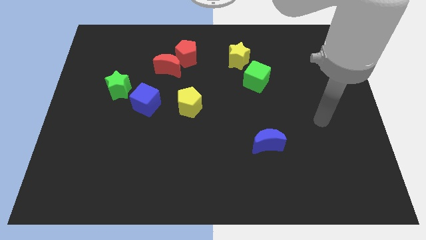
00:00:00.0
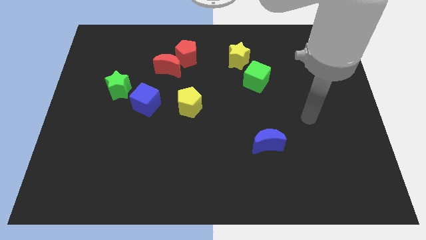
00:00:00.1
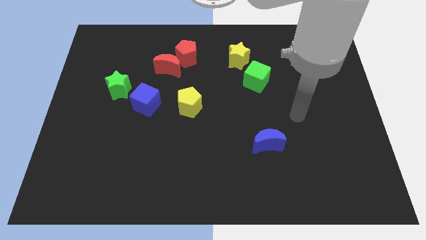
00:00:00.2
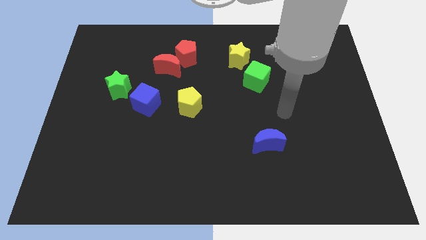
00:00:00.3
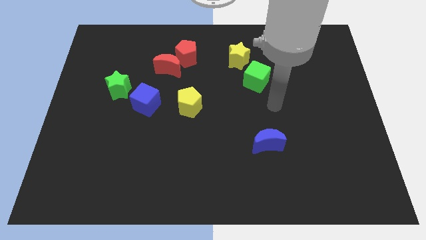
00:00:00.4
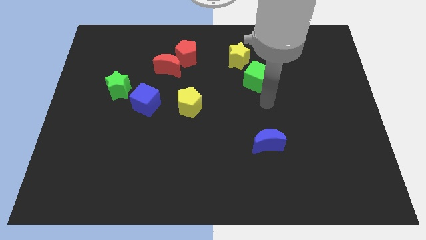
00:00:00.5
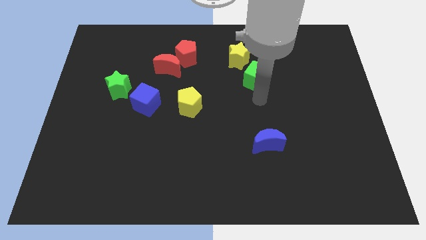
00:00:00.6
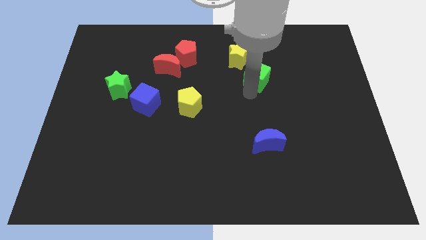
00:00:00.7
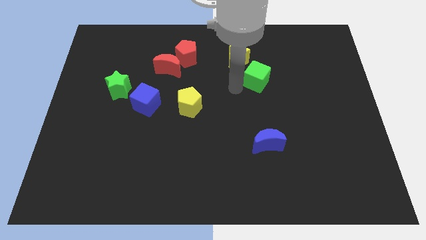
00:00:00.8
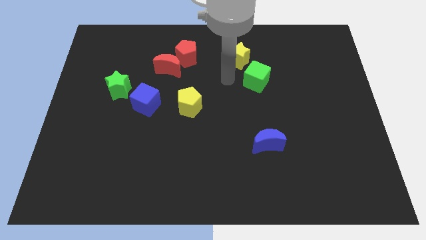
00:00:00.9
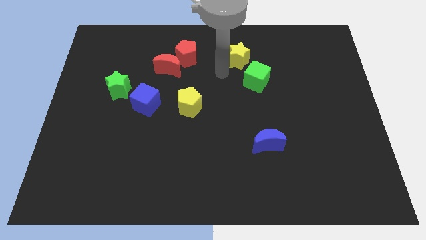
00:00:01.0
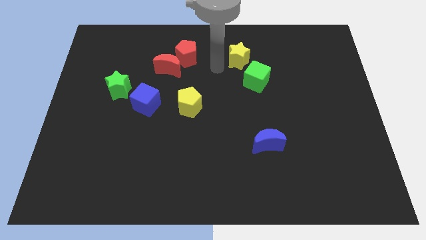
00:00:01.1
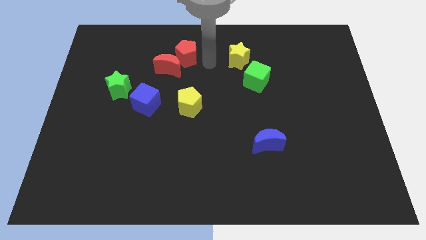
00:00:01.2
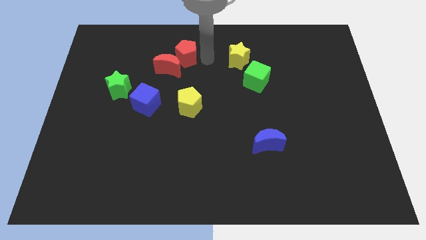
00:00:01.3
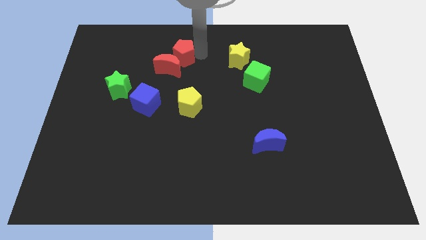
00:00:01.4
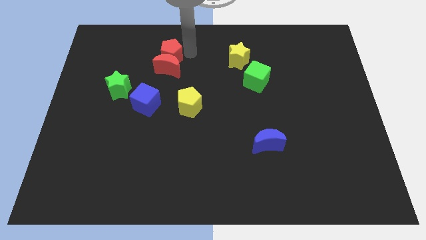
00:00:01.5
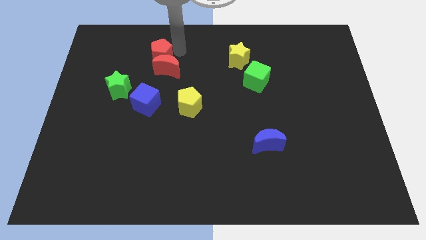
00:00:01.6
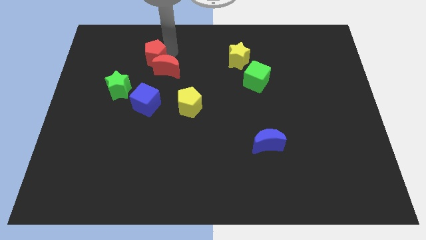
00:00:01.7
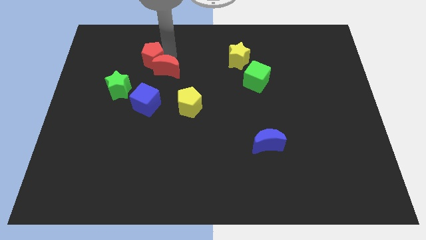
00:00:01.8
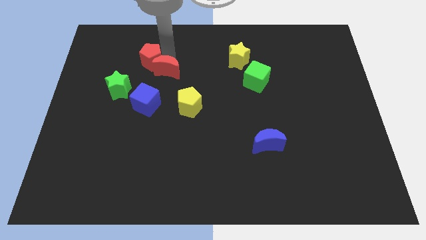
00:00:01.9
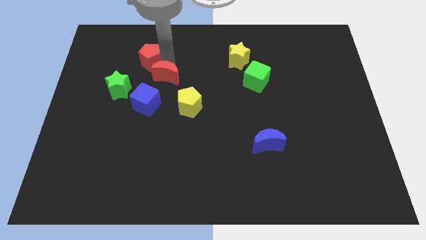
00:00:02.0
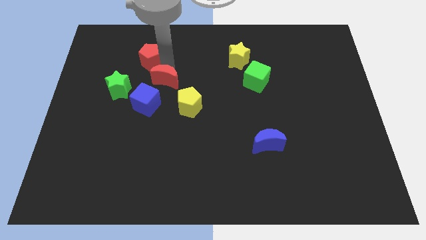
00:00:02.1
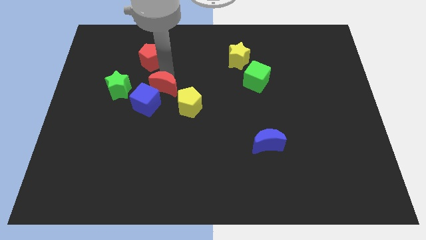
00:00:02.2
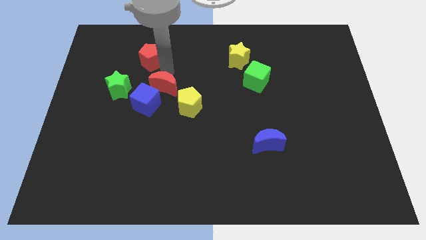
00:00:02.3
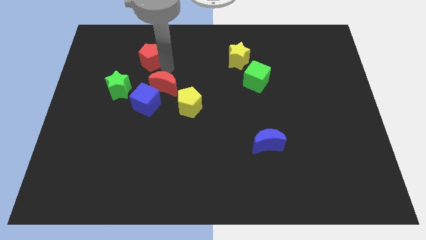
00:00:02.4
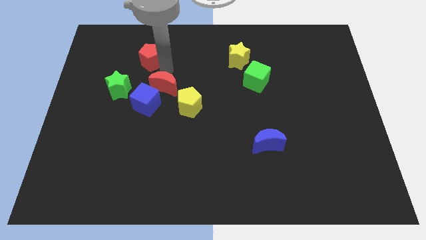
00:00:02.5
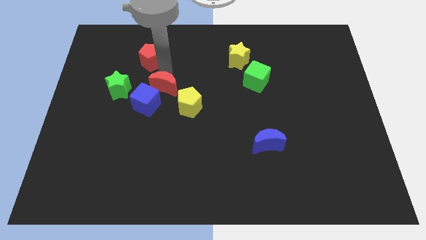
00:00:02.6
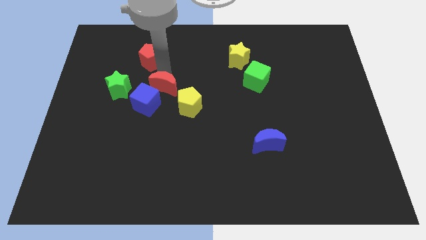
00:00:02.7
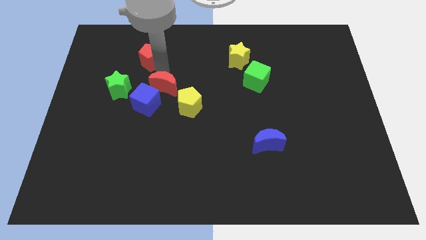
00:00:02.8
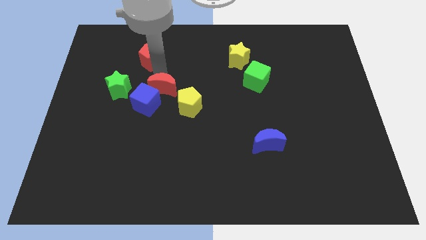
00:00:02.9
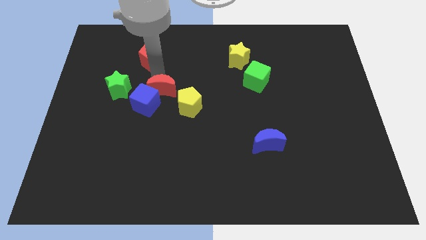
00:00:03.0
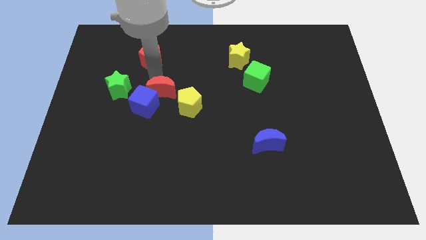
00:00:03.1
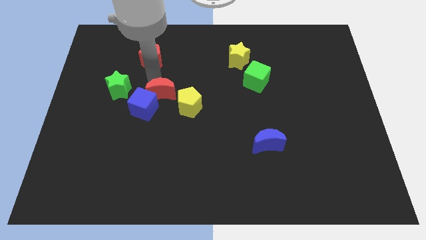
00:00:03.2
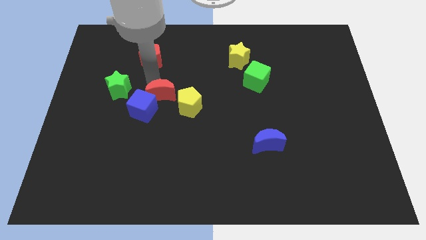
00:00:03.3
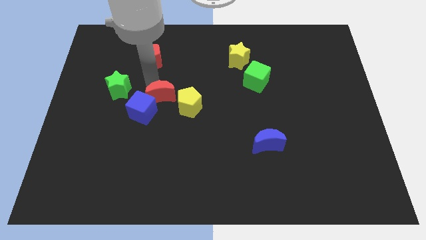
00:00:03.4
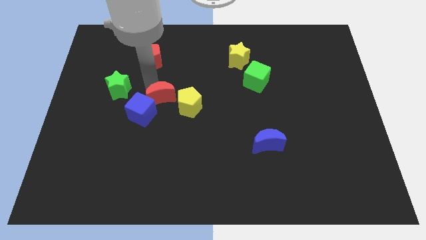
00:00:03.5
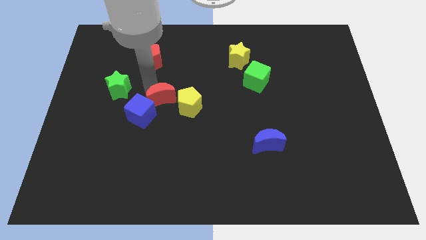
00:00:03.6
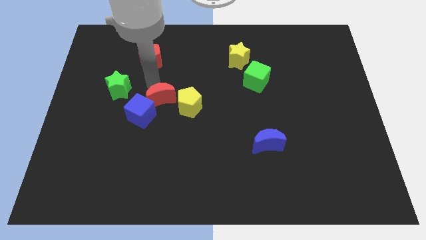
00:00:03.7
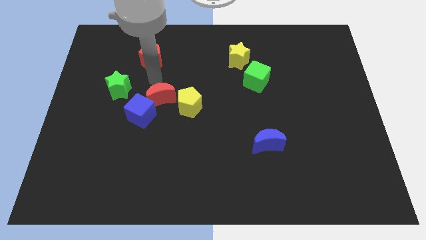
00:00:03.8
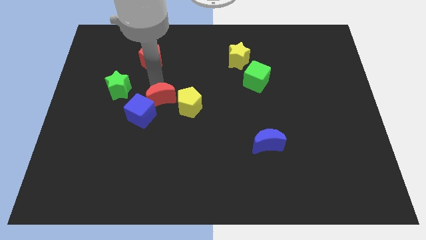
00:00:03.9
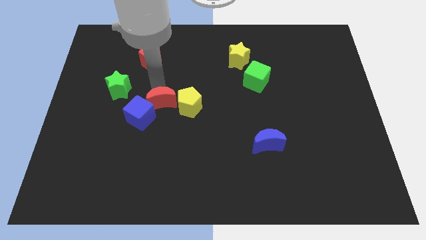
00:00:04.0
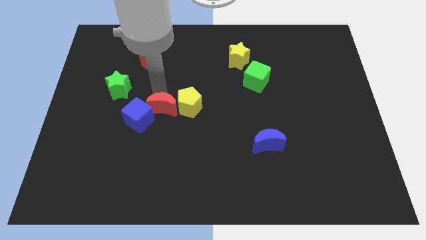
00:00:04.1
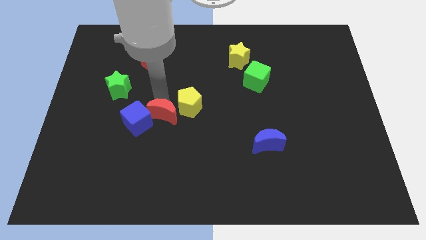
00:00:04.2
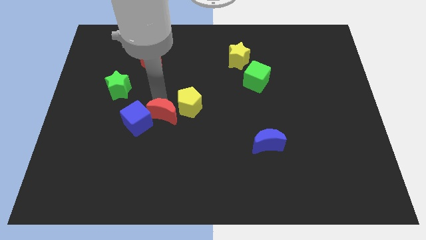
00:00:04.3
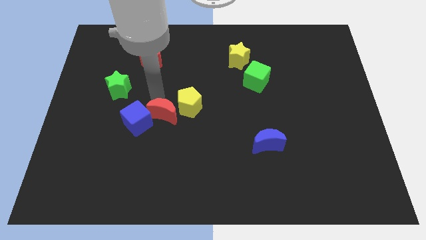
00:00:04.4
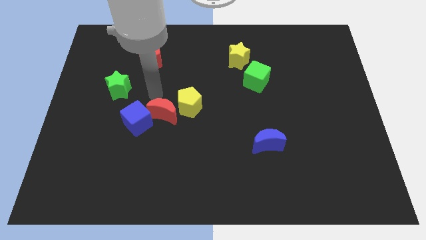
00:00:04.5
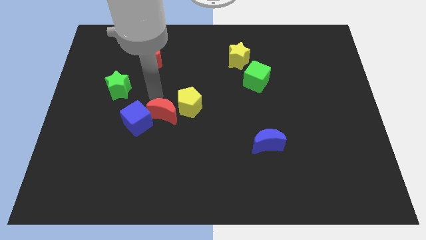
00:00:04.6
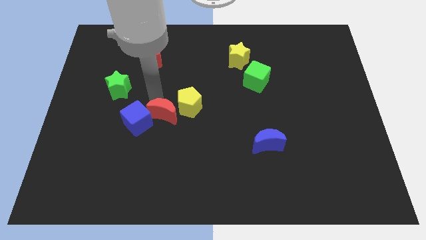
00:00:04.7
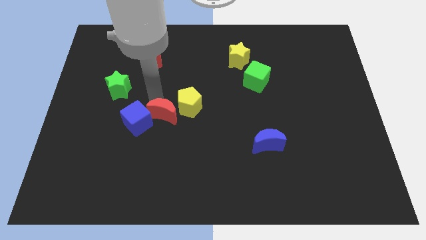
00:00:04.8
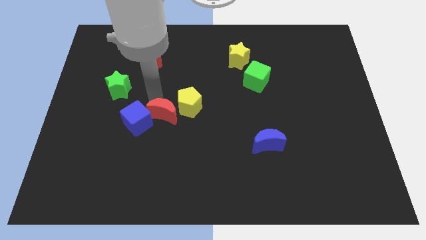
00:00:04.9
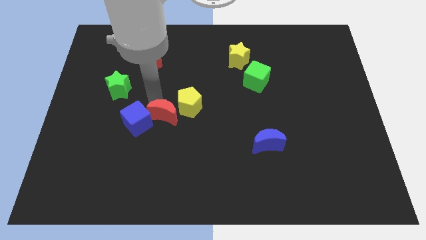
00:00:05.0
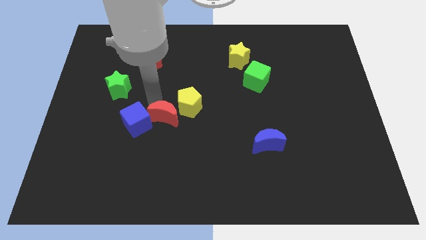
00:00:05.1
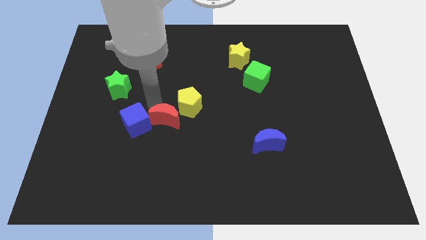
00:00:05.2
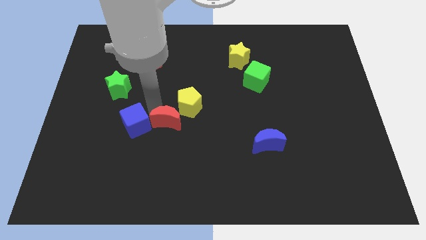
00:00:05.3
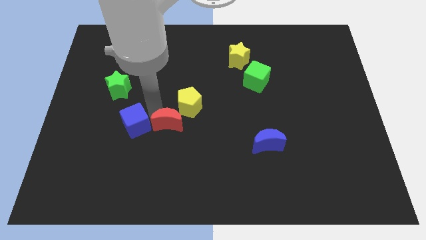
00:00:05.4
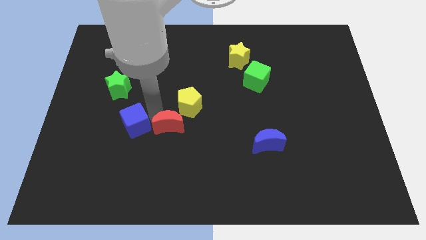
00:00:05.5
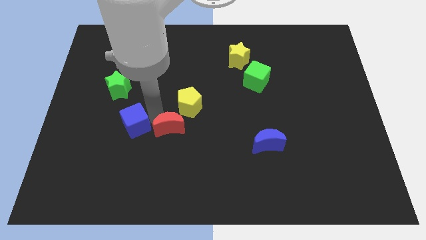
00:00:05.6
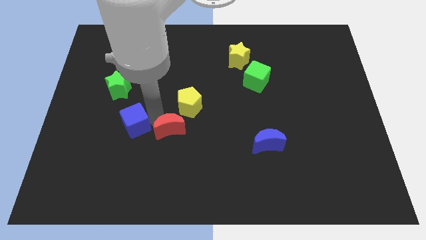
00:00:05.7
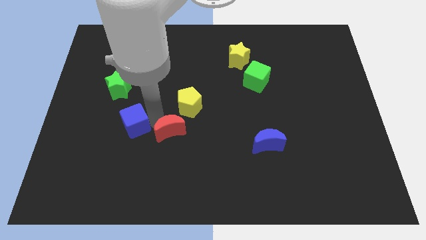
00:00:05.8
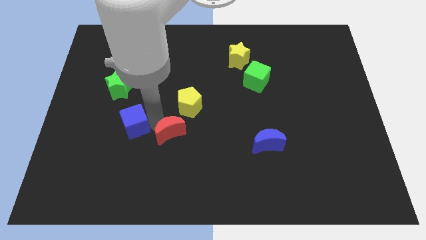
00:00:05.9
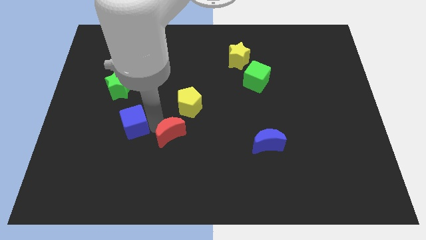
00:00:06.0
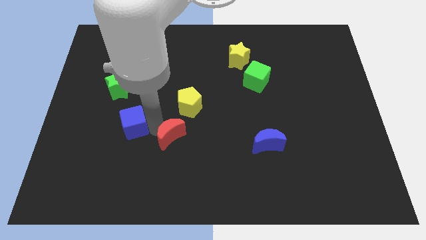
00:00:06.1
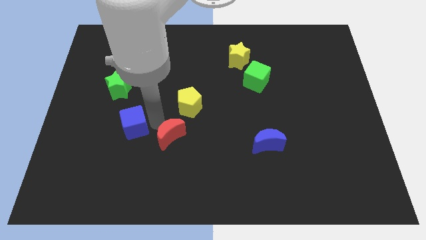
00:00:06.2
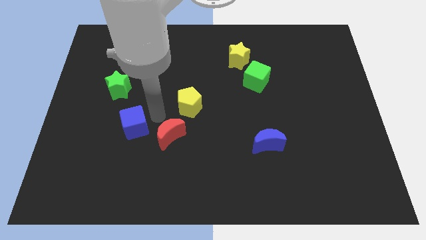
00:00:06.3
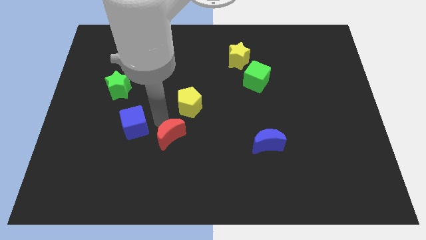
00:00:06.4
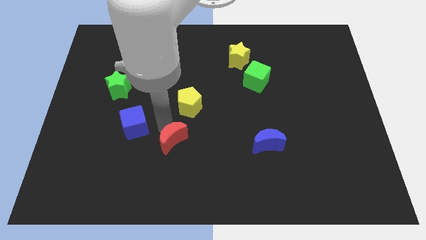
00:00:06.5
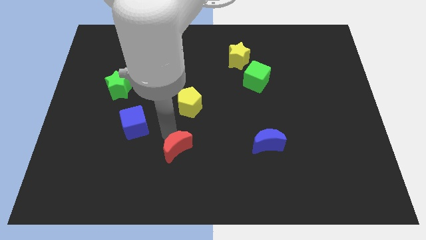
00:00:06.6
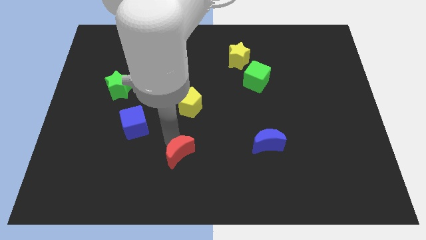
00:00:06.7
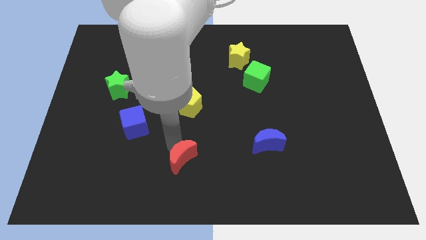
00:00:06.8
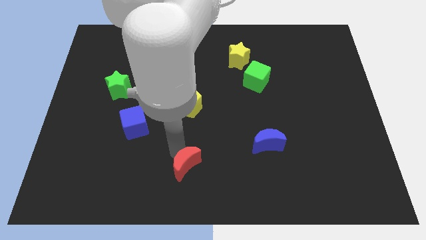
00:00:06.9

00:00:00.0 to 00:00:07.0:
slide the red moon to the bottom
